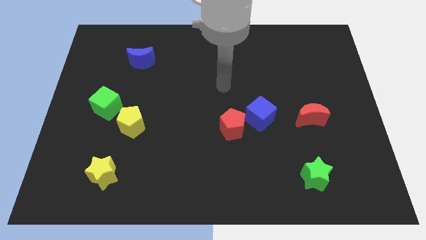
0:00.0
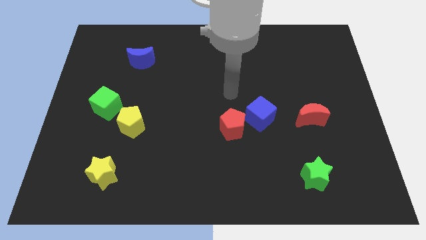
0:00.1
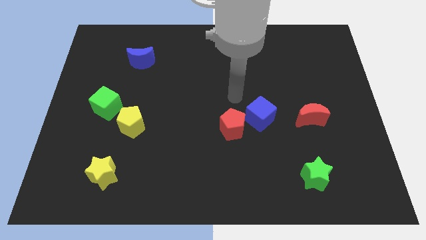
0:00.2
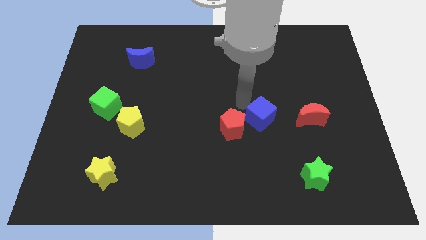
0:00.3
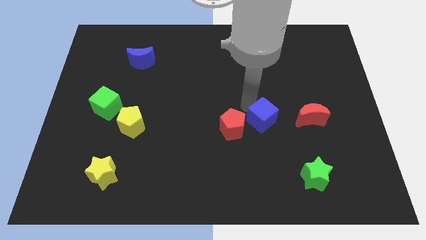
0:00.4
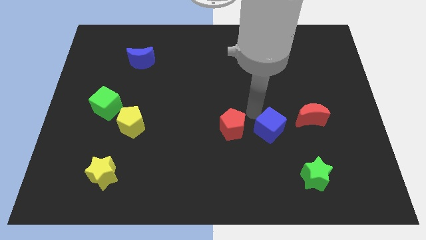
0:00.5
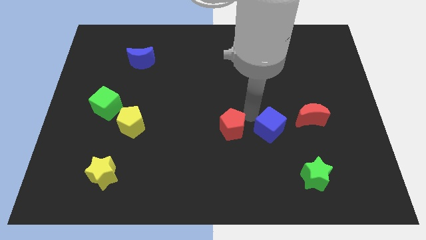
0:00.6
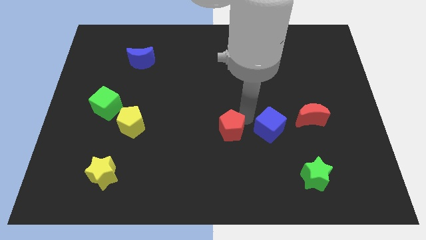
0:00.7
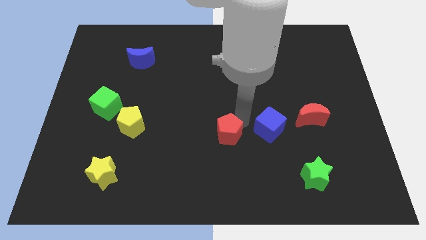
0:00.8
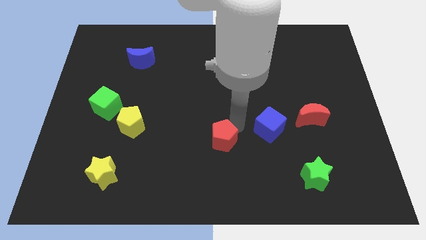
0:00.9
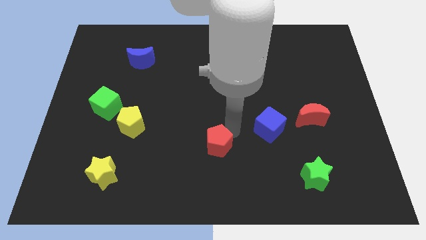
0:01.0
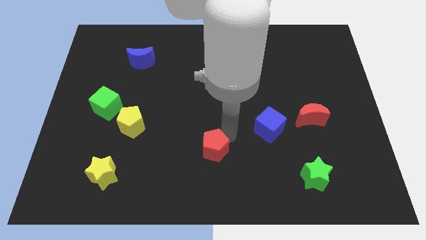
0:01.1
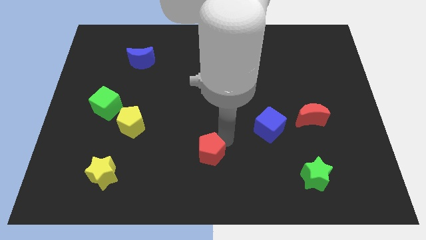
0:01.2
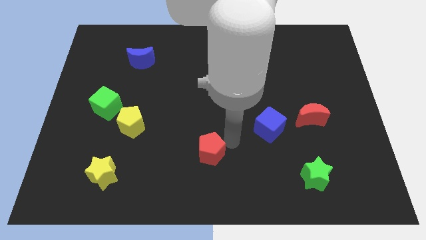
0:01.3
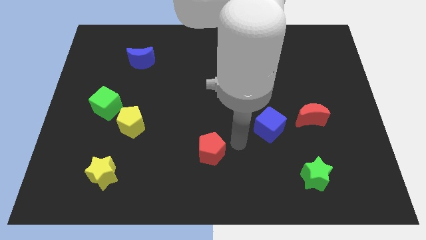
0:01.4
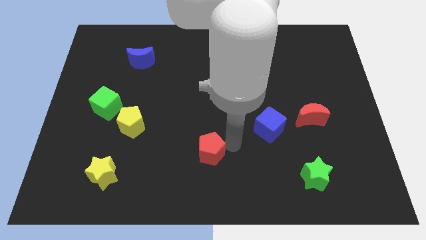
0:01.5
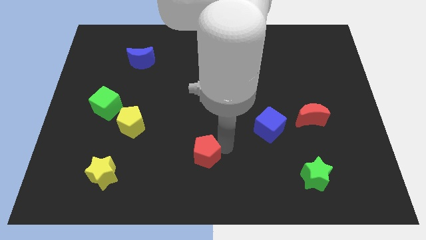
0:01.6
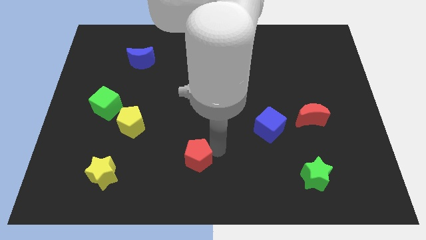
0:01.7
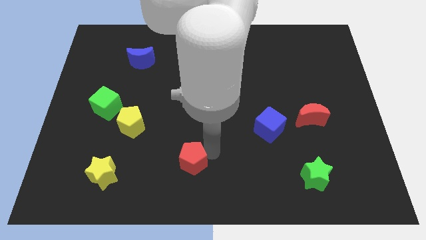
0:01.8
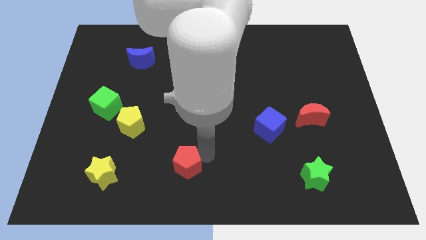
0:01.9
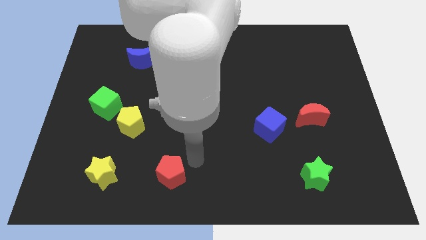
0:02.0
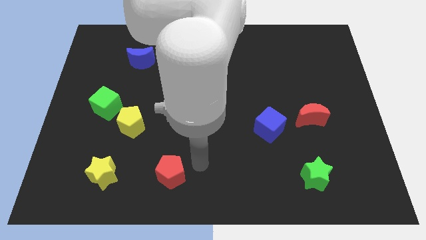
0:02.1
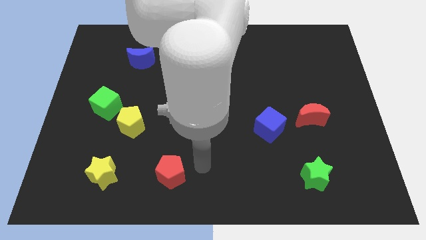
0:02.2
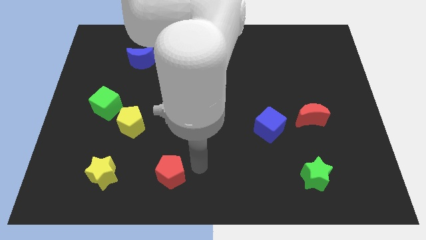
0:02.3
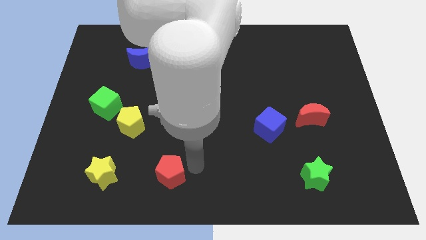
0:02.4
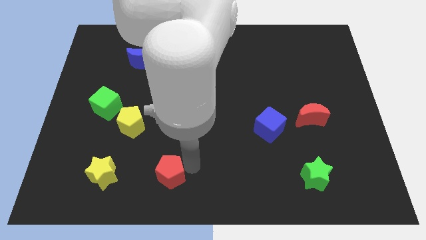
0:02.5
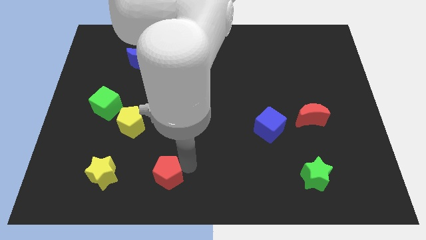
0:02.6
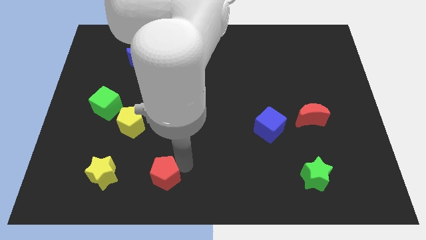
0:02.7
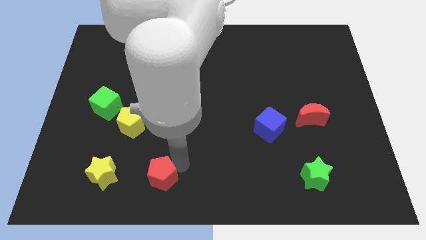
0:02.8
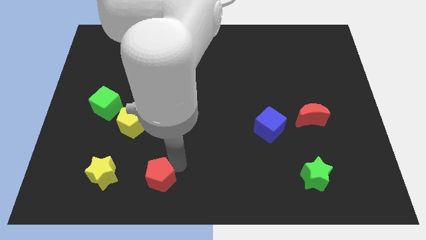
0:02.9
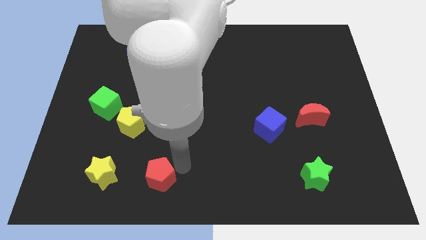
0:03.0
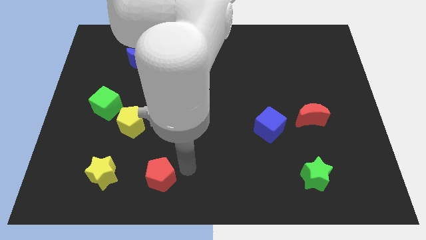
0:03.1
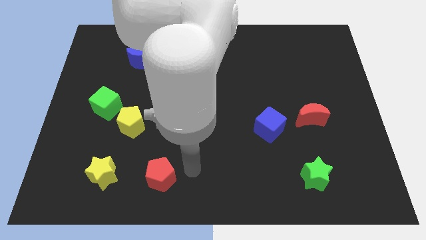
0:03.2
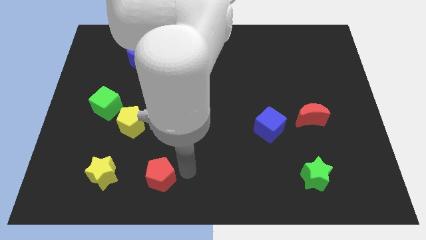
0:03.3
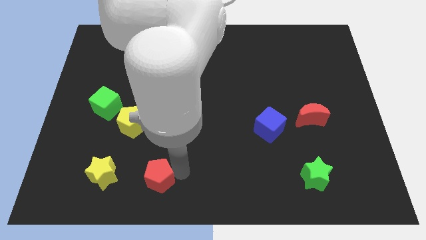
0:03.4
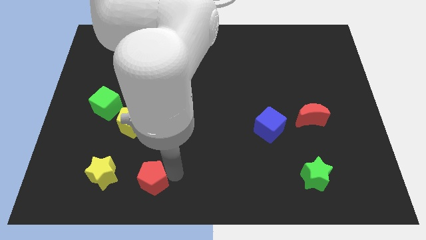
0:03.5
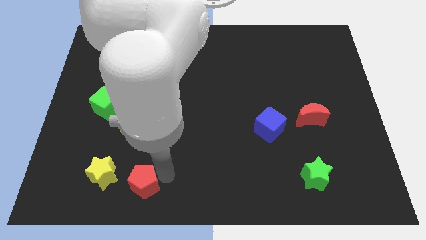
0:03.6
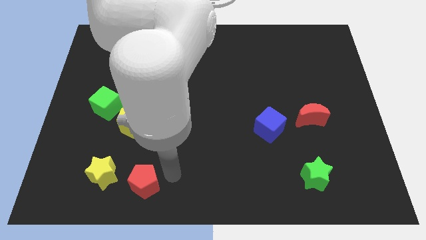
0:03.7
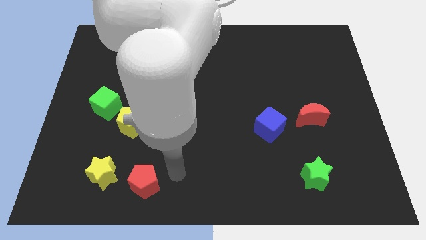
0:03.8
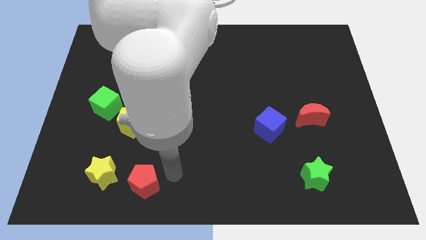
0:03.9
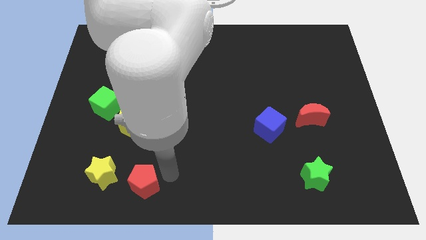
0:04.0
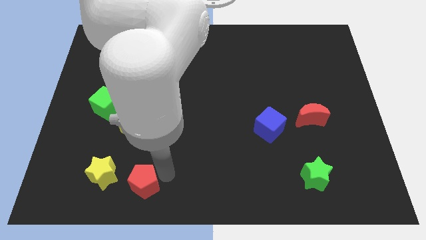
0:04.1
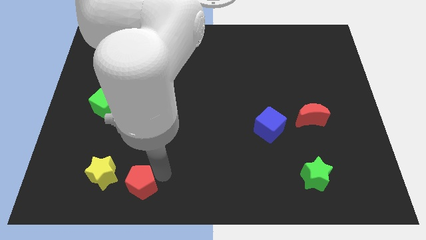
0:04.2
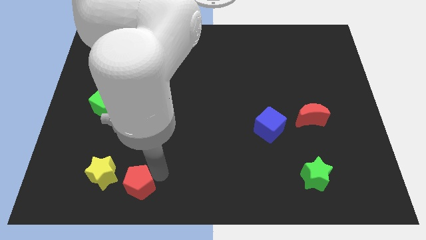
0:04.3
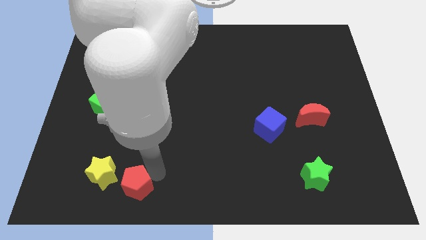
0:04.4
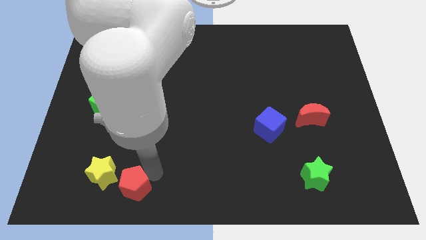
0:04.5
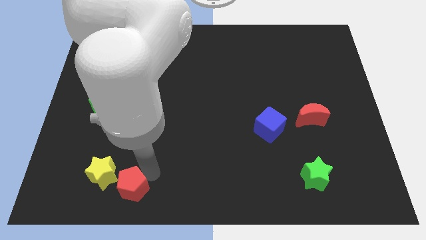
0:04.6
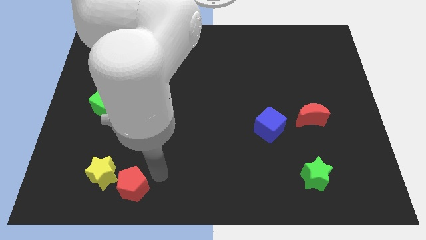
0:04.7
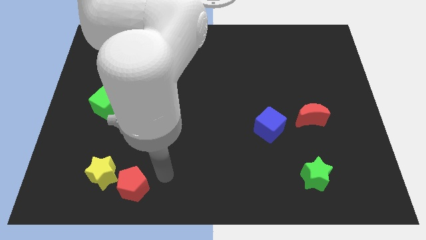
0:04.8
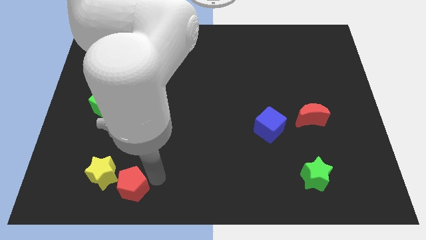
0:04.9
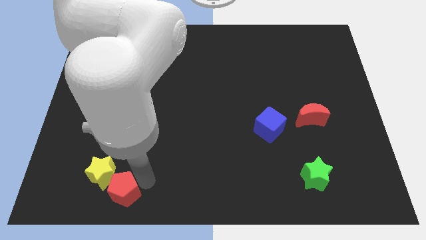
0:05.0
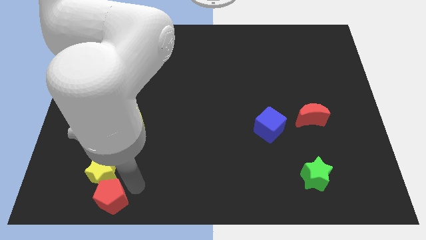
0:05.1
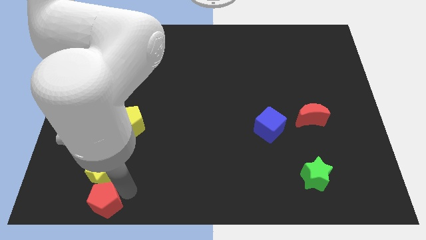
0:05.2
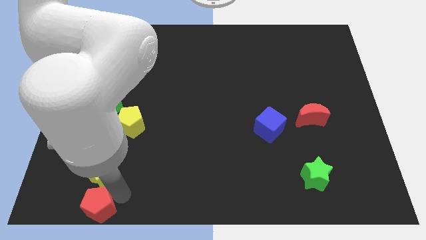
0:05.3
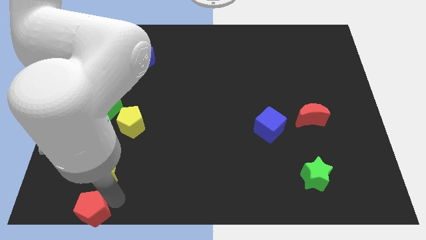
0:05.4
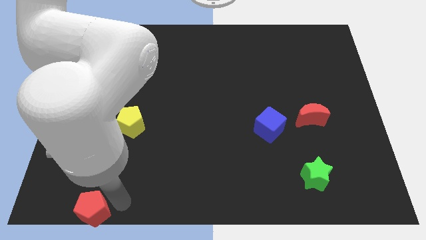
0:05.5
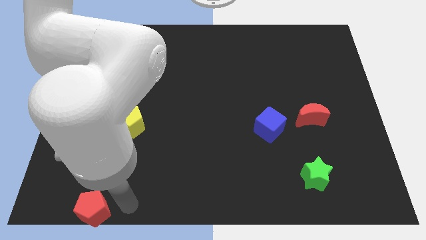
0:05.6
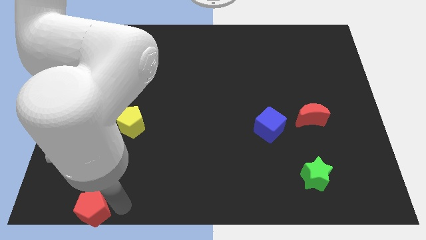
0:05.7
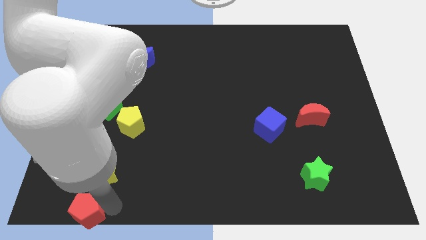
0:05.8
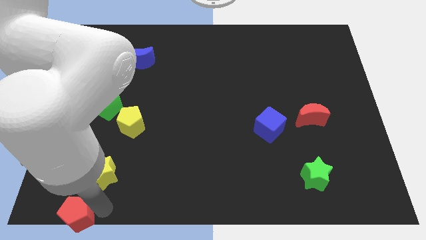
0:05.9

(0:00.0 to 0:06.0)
put the red pentagon to the bottom left

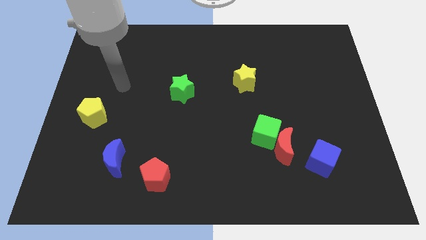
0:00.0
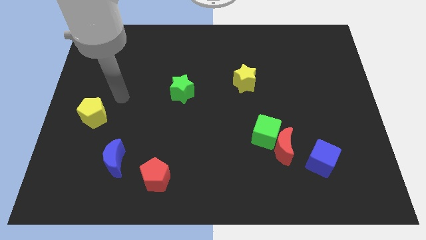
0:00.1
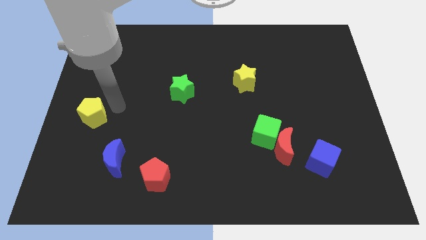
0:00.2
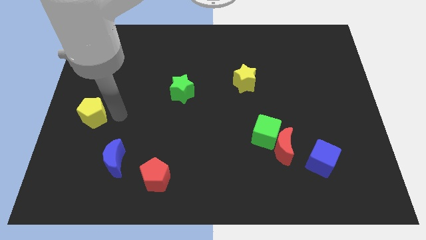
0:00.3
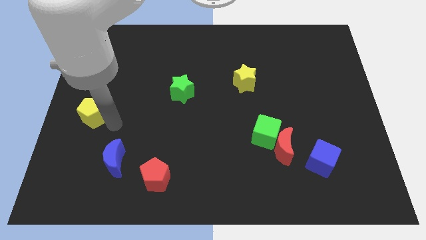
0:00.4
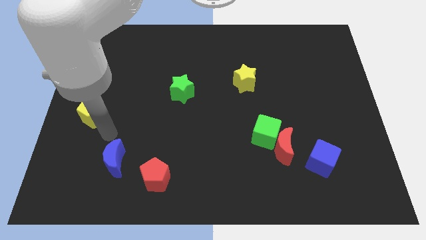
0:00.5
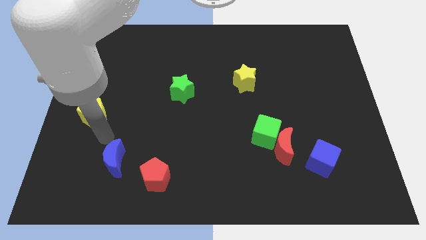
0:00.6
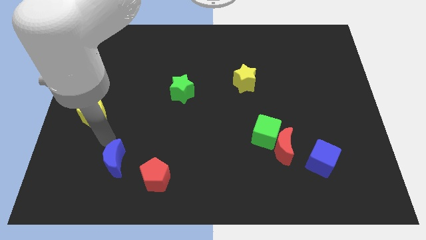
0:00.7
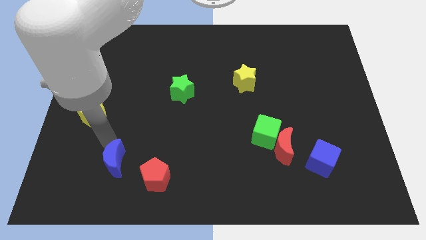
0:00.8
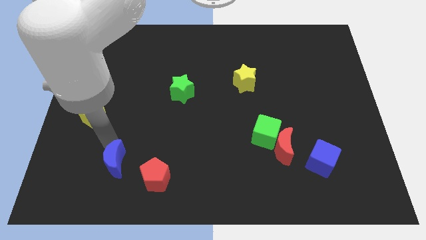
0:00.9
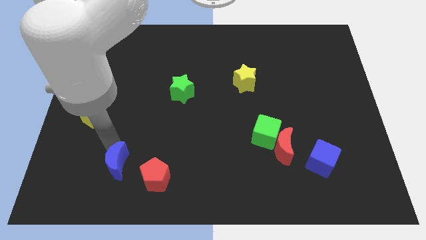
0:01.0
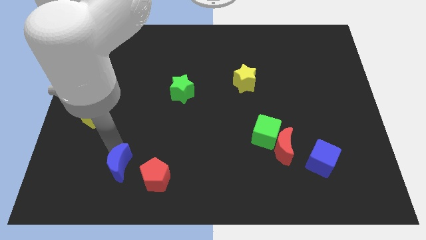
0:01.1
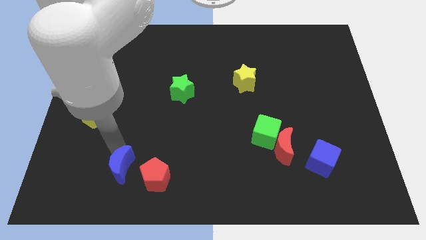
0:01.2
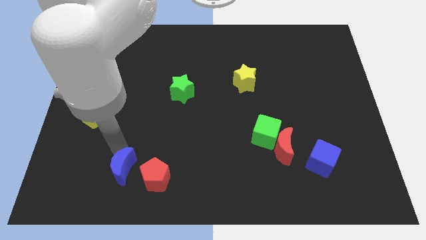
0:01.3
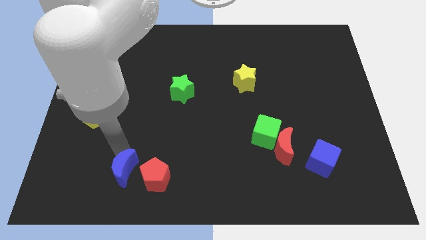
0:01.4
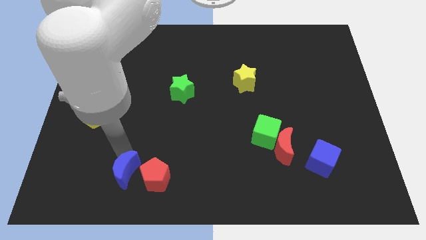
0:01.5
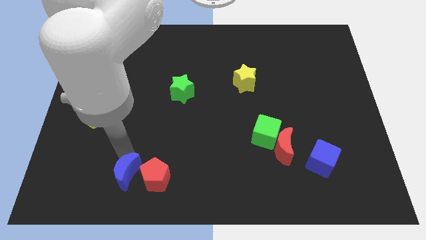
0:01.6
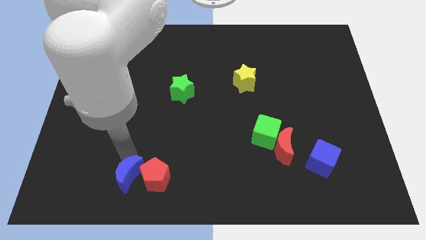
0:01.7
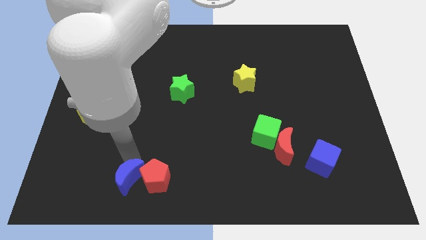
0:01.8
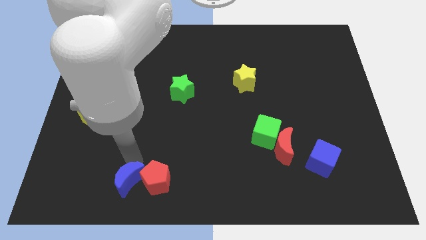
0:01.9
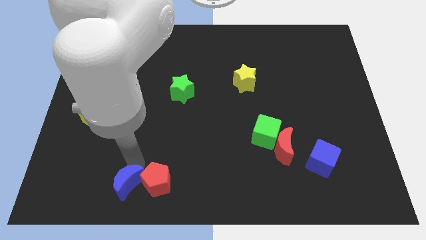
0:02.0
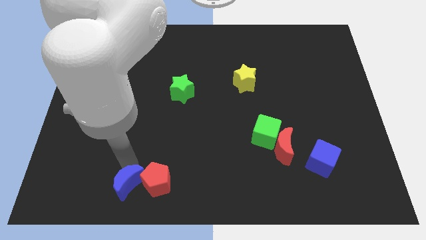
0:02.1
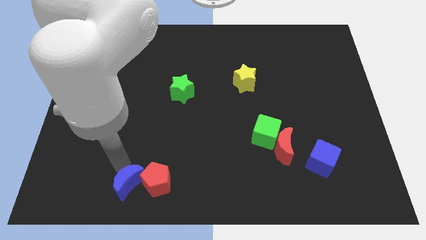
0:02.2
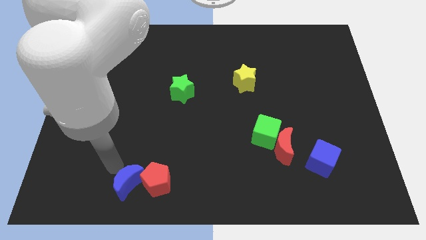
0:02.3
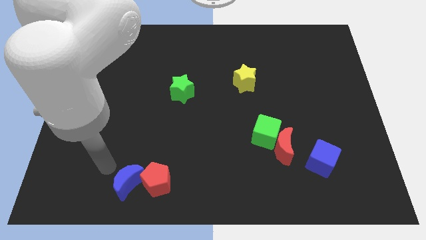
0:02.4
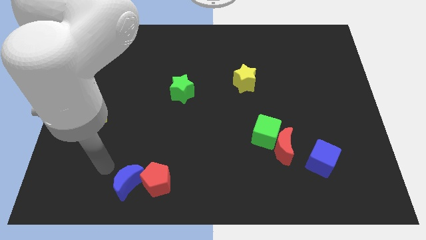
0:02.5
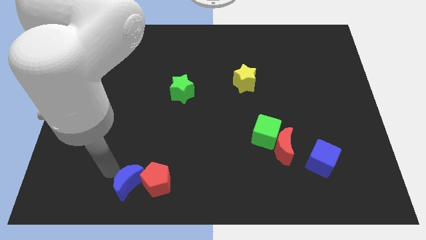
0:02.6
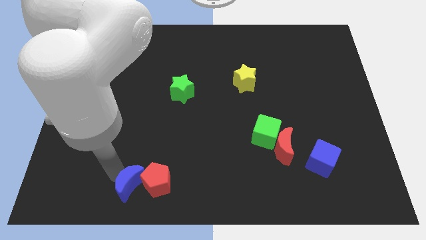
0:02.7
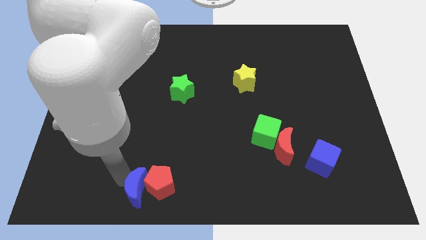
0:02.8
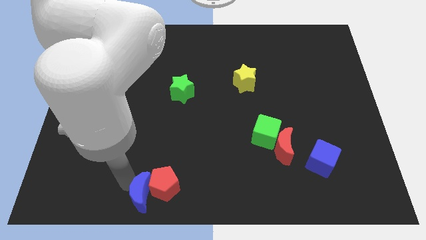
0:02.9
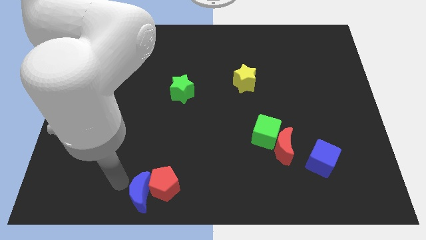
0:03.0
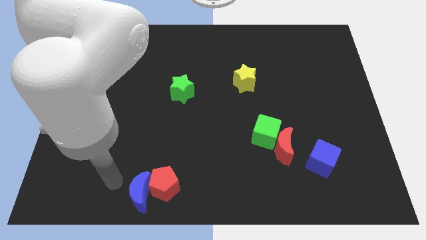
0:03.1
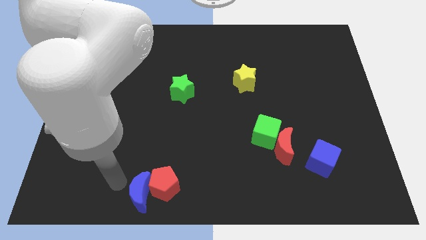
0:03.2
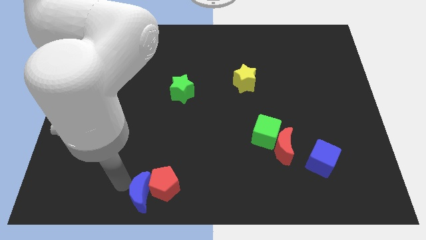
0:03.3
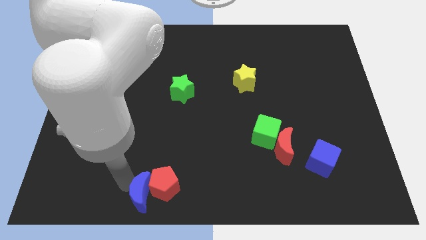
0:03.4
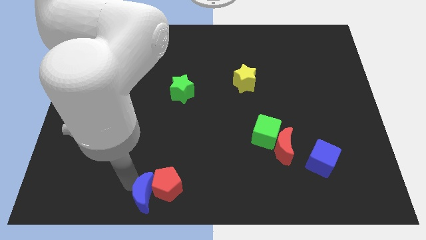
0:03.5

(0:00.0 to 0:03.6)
put the blue moon to the bottom side
